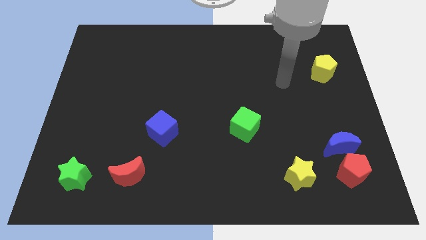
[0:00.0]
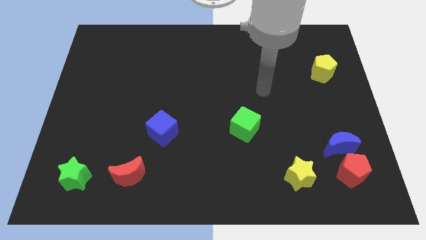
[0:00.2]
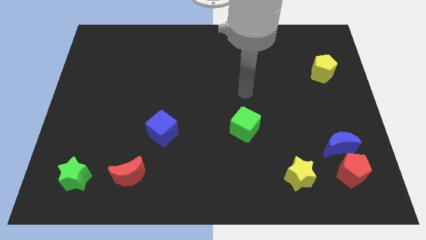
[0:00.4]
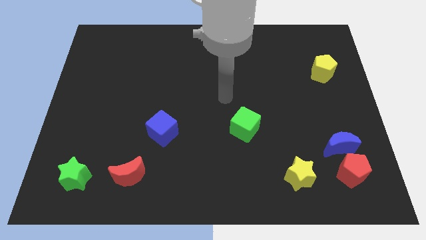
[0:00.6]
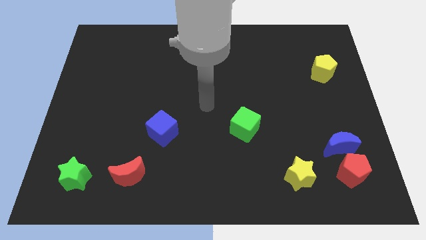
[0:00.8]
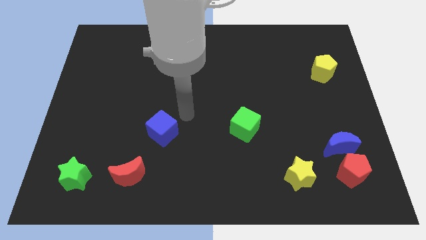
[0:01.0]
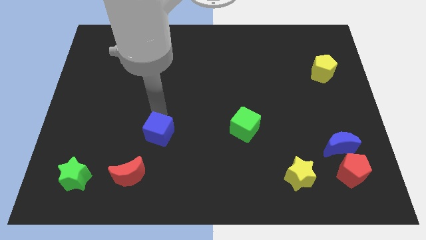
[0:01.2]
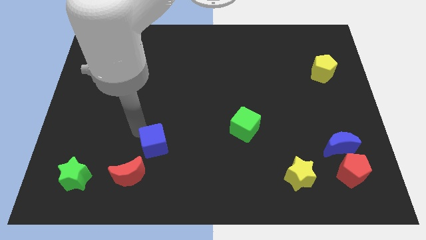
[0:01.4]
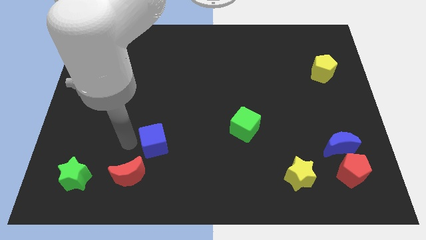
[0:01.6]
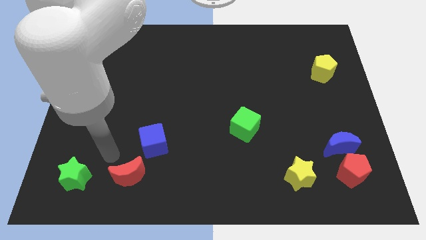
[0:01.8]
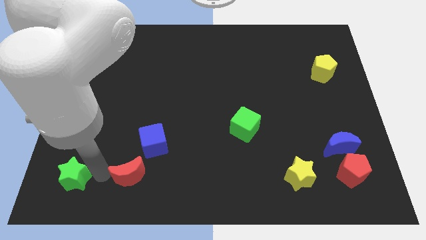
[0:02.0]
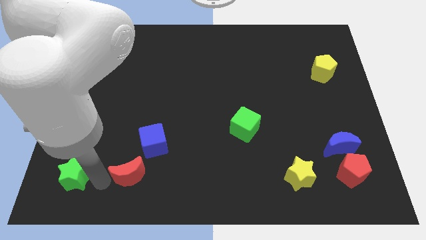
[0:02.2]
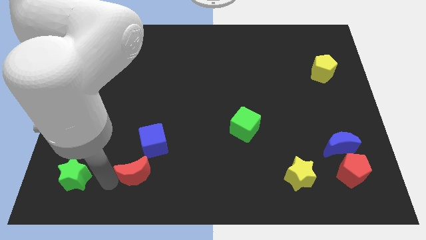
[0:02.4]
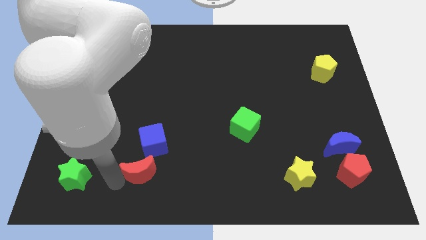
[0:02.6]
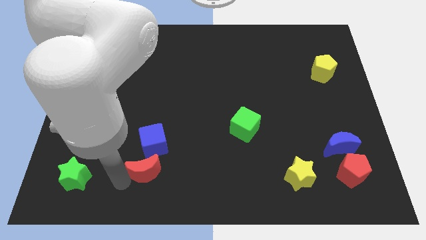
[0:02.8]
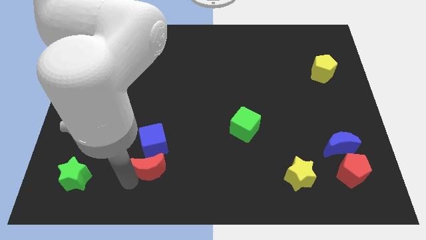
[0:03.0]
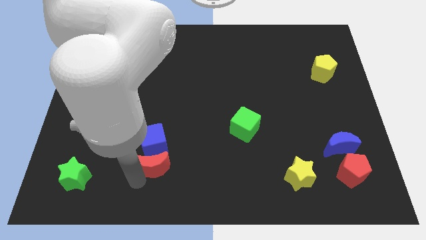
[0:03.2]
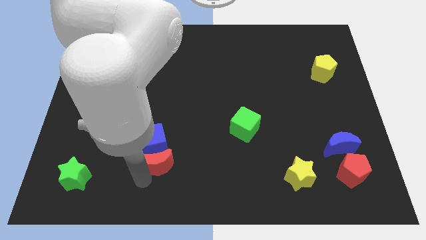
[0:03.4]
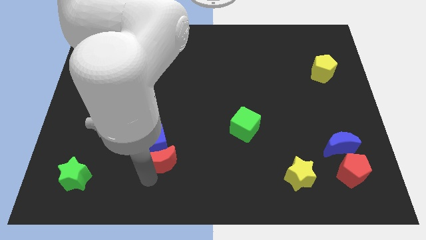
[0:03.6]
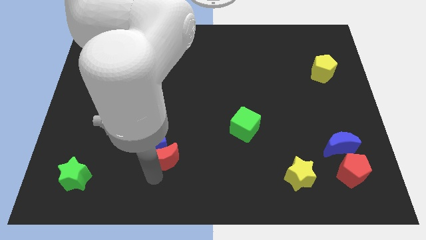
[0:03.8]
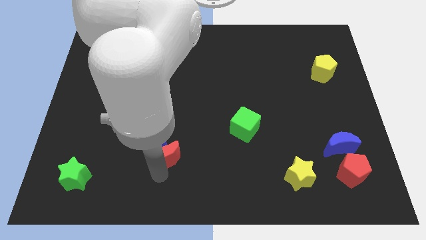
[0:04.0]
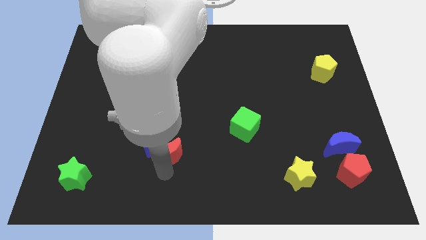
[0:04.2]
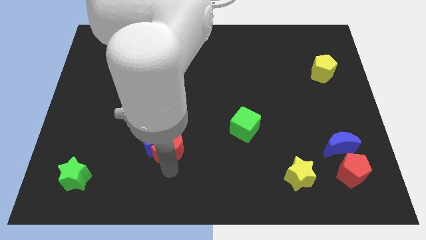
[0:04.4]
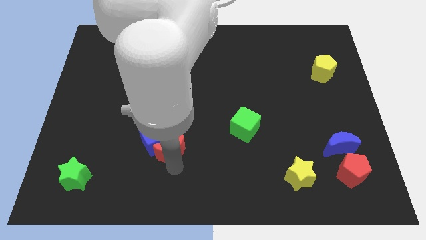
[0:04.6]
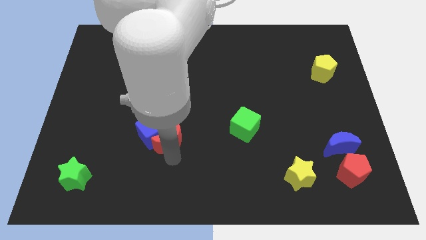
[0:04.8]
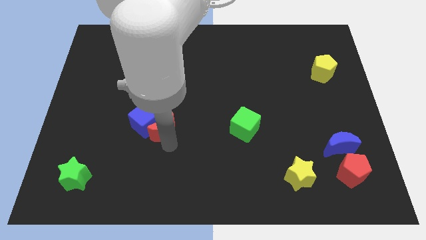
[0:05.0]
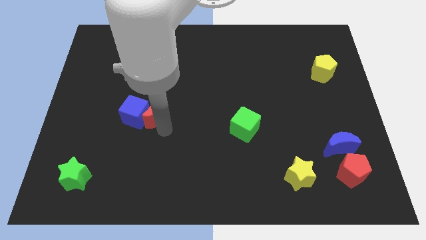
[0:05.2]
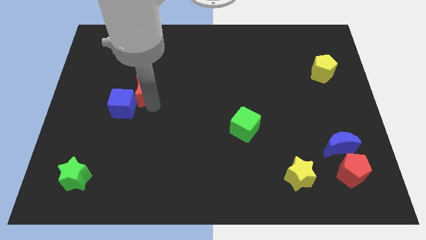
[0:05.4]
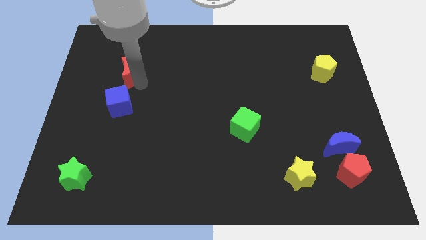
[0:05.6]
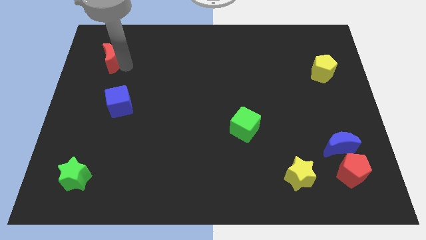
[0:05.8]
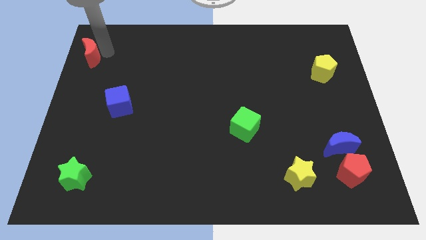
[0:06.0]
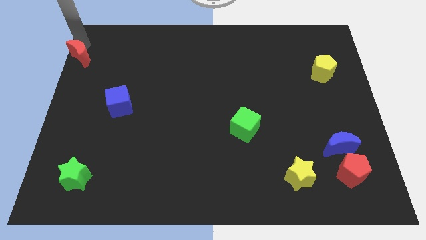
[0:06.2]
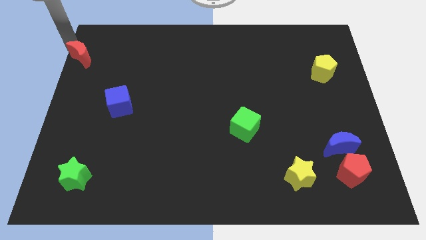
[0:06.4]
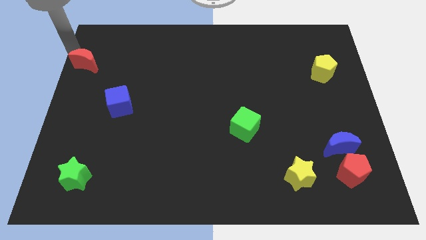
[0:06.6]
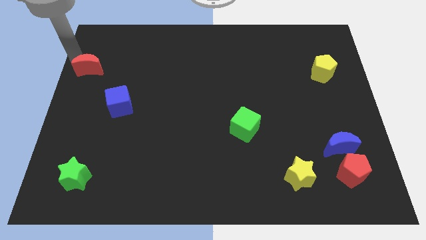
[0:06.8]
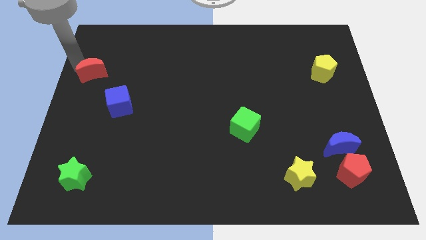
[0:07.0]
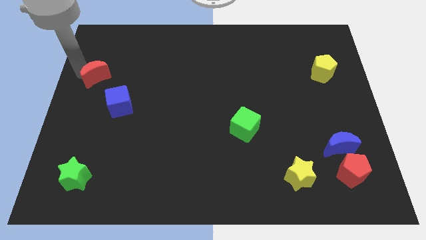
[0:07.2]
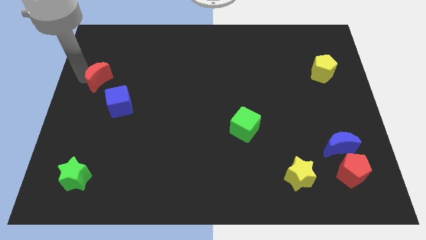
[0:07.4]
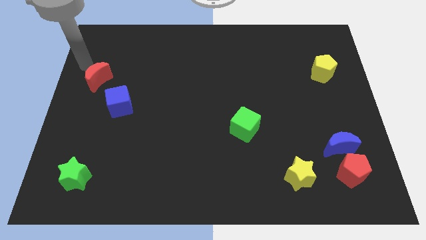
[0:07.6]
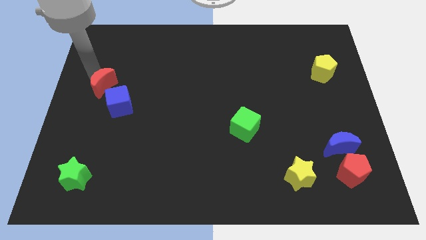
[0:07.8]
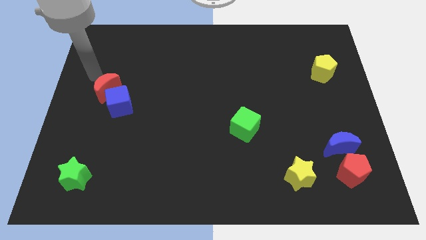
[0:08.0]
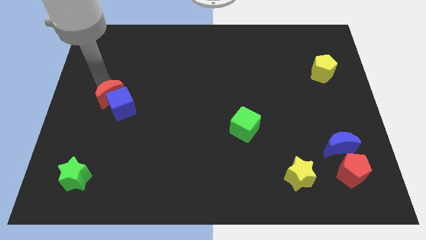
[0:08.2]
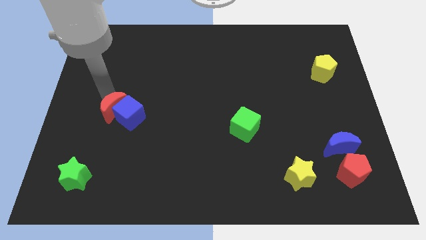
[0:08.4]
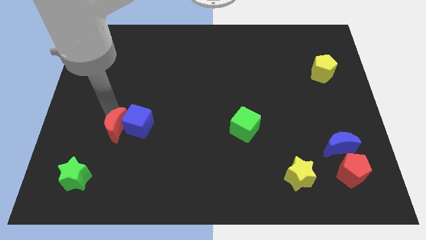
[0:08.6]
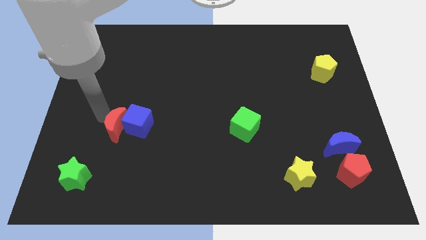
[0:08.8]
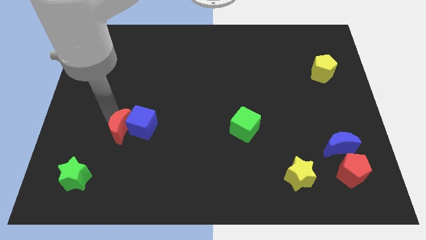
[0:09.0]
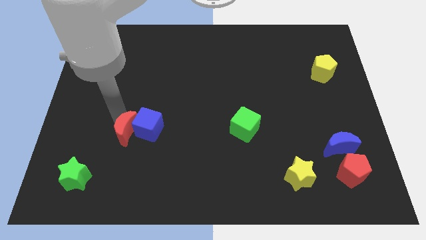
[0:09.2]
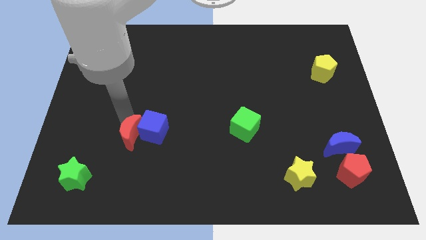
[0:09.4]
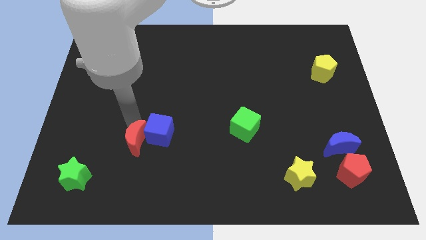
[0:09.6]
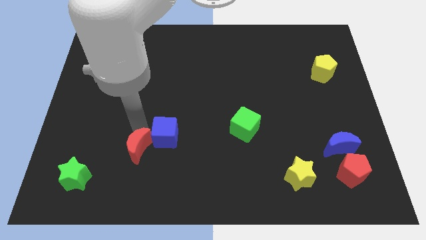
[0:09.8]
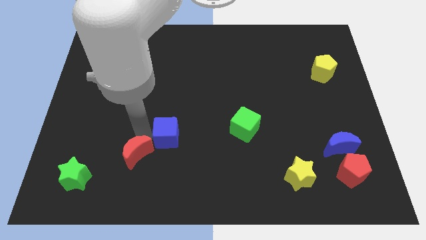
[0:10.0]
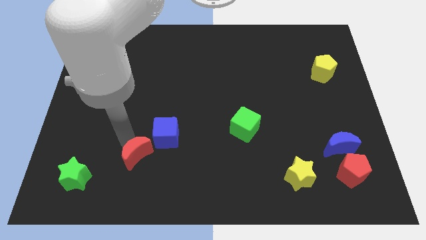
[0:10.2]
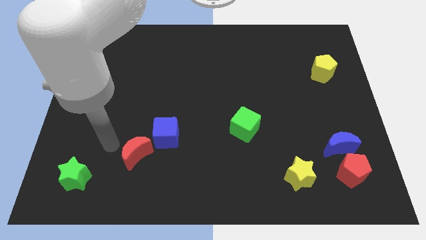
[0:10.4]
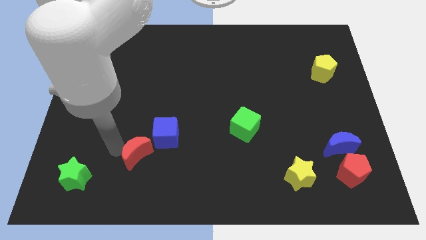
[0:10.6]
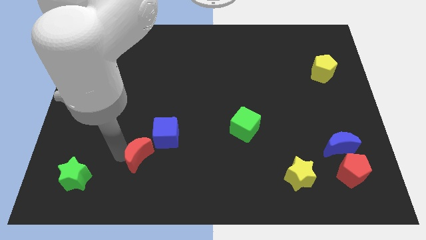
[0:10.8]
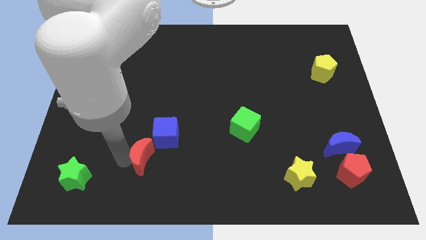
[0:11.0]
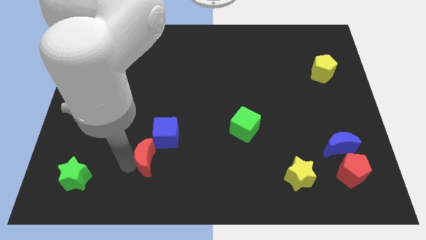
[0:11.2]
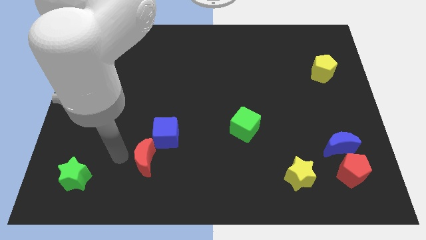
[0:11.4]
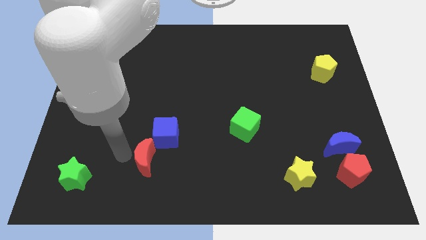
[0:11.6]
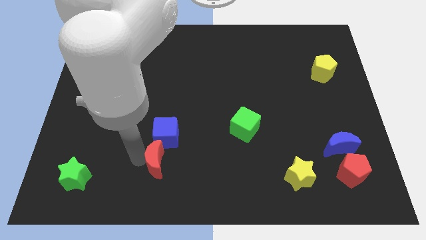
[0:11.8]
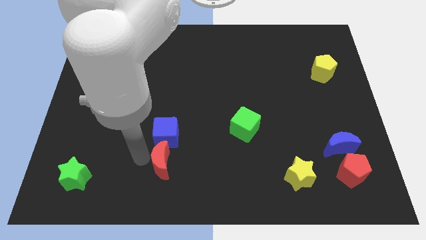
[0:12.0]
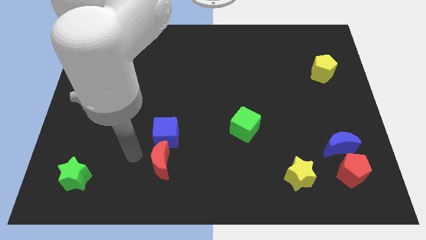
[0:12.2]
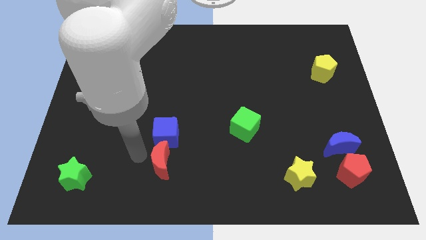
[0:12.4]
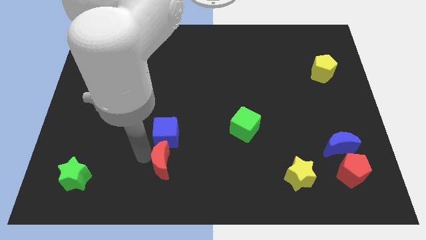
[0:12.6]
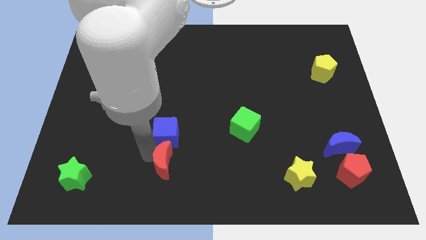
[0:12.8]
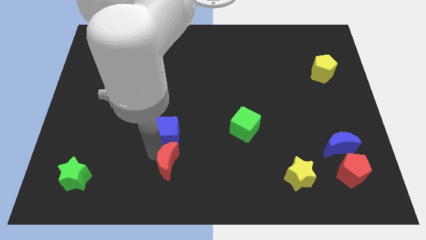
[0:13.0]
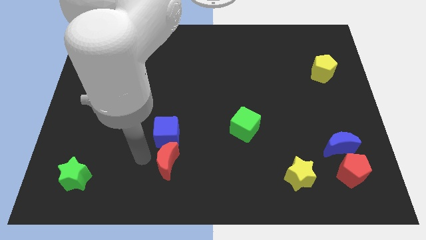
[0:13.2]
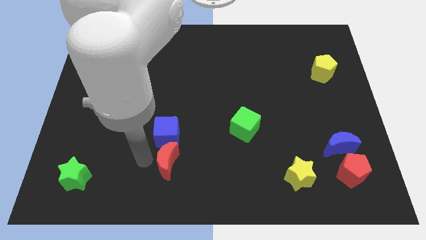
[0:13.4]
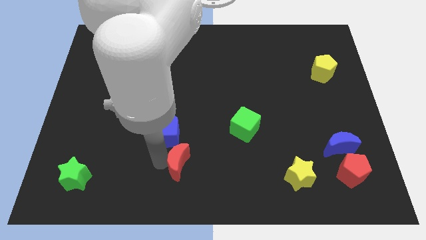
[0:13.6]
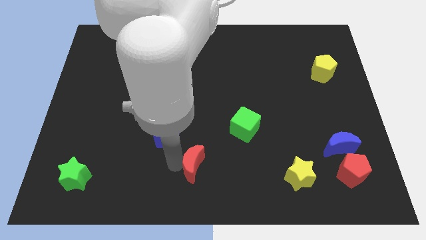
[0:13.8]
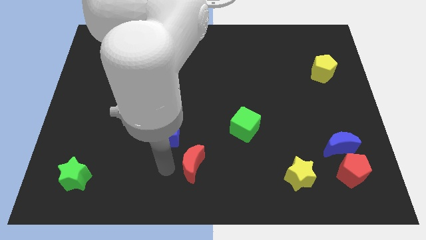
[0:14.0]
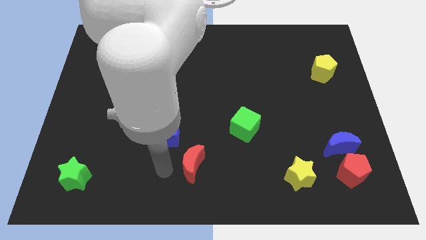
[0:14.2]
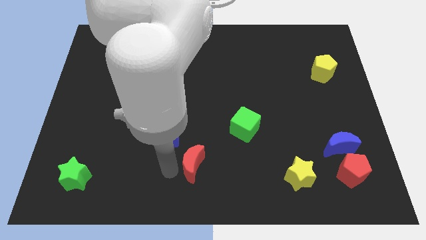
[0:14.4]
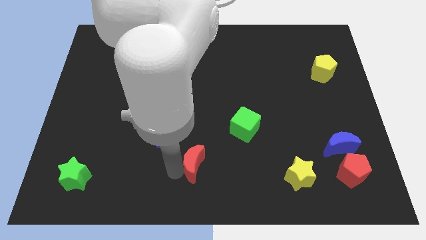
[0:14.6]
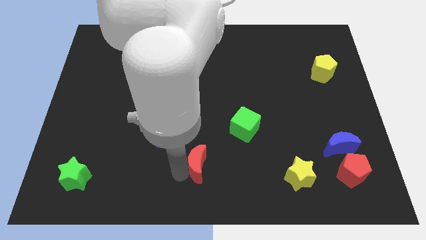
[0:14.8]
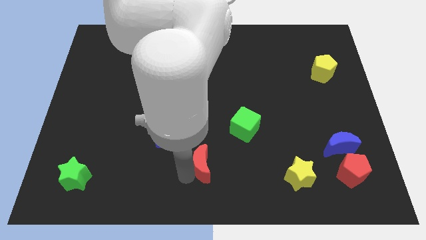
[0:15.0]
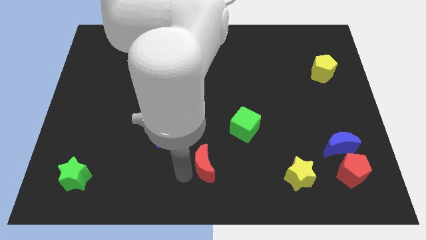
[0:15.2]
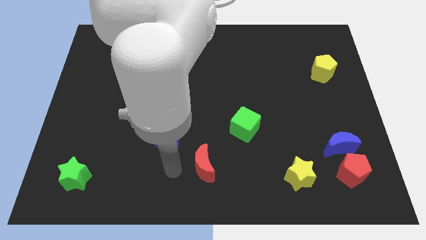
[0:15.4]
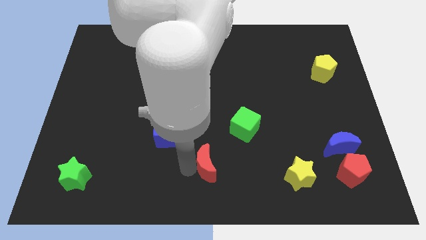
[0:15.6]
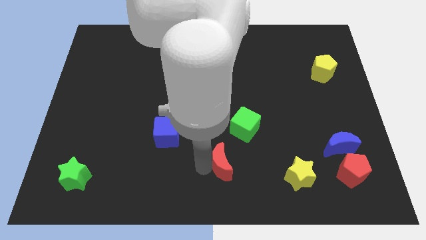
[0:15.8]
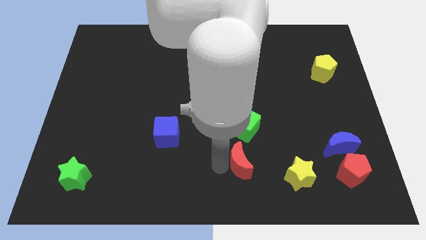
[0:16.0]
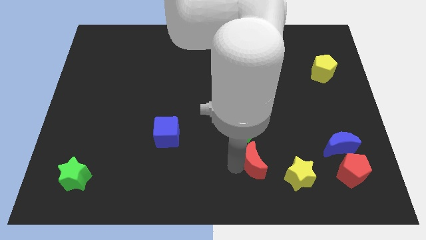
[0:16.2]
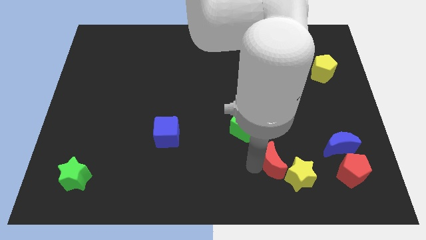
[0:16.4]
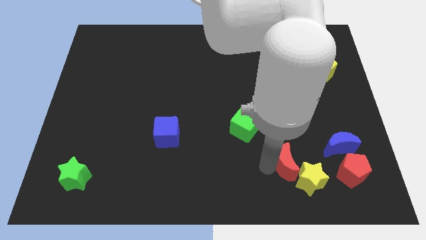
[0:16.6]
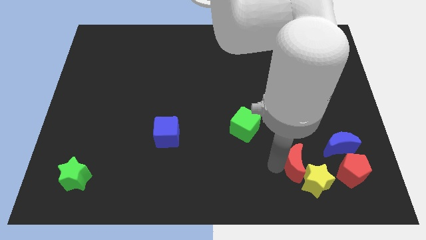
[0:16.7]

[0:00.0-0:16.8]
slide the red moon to the bottom left side of the blue moon
